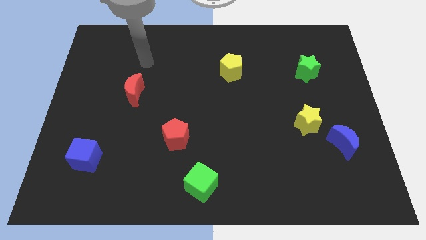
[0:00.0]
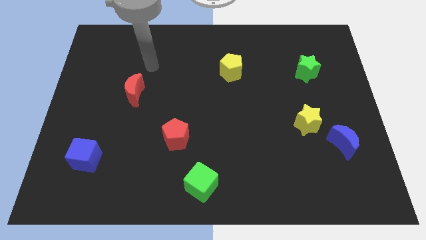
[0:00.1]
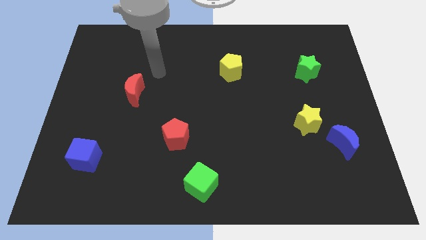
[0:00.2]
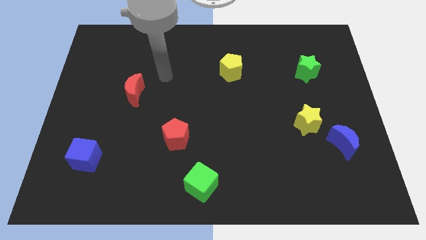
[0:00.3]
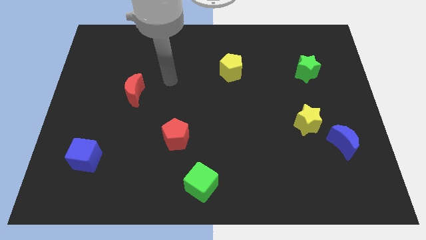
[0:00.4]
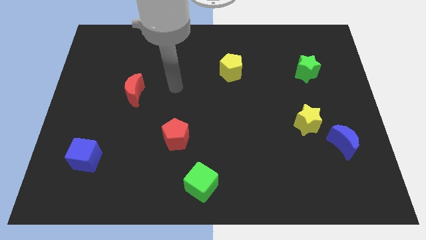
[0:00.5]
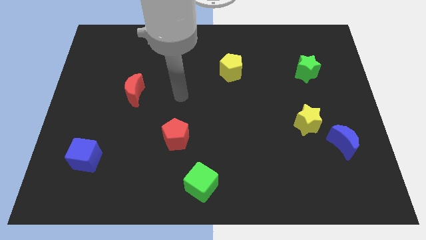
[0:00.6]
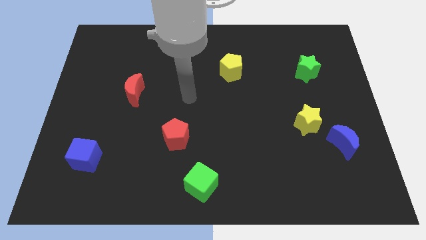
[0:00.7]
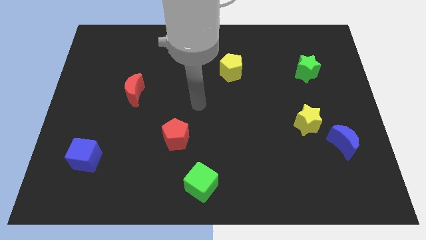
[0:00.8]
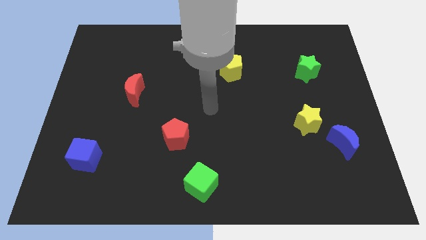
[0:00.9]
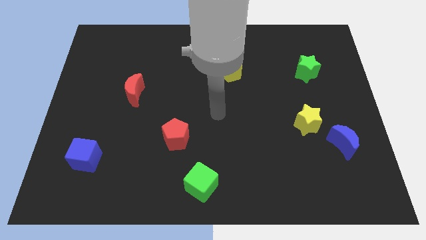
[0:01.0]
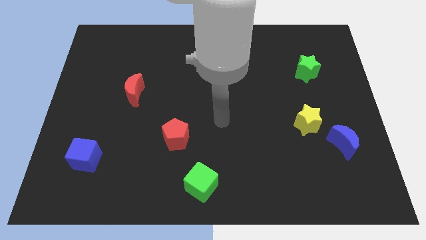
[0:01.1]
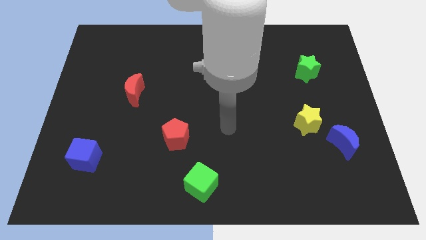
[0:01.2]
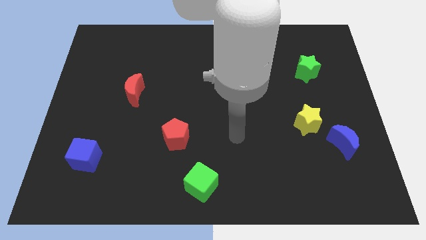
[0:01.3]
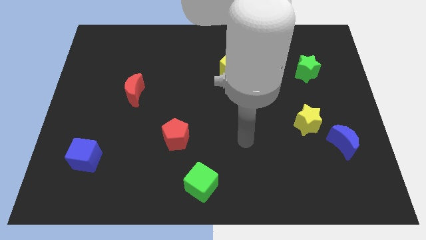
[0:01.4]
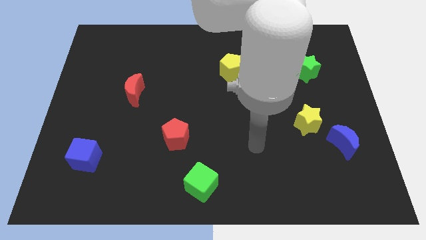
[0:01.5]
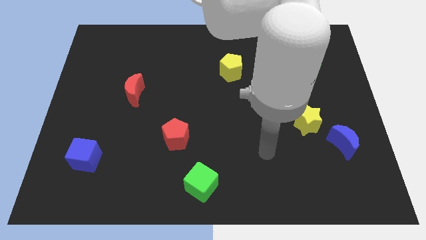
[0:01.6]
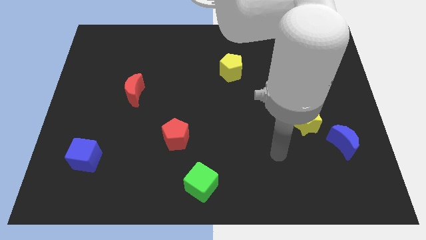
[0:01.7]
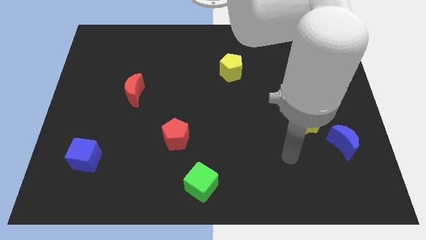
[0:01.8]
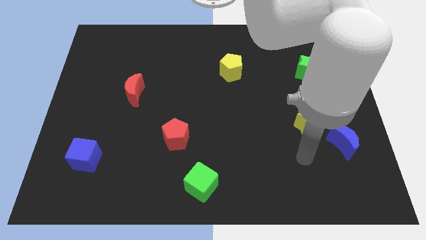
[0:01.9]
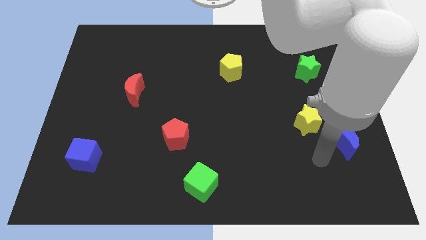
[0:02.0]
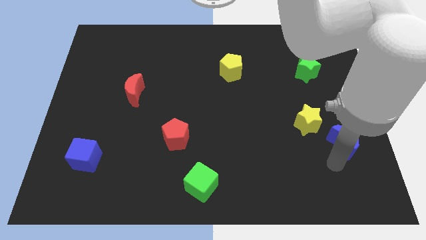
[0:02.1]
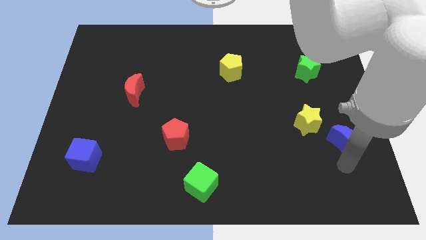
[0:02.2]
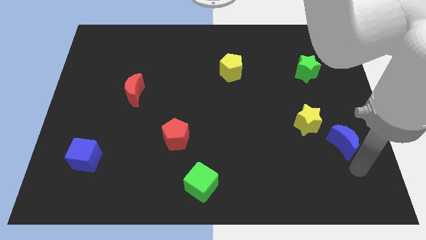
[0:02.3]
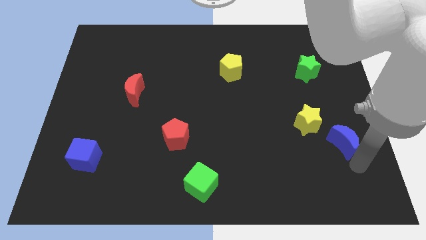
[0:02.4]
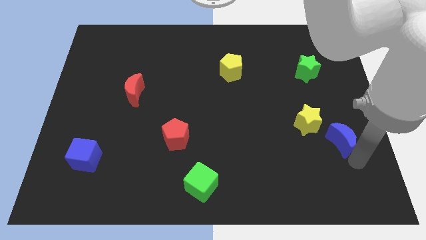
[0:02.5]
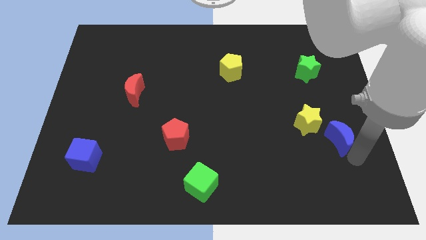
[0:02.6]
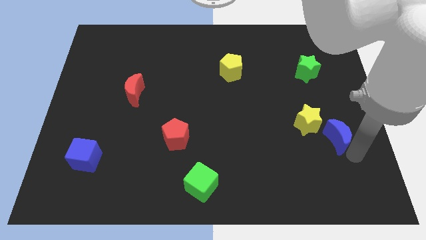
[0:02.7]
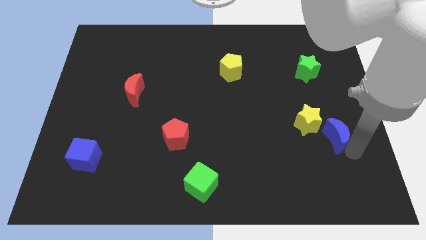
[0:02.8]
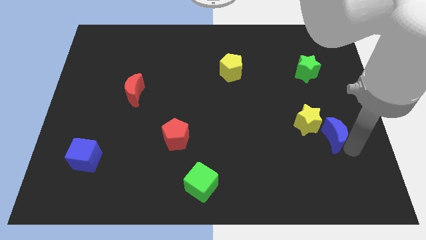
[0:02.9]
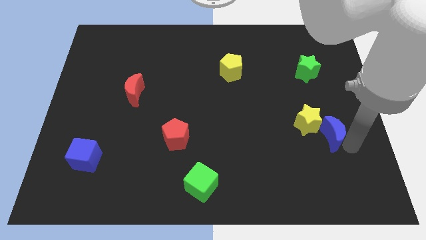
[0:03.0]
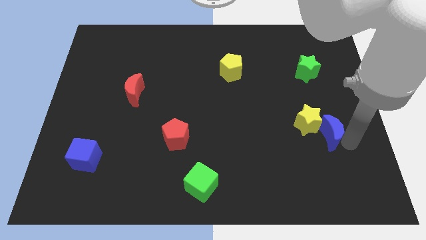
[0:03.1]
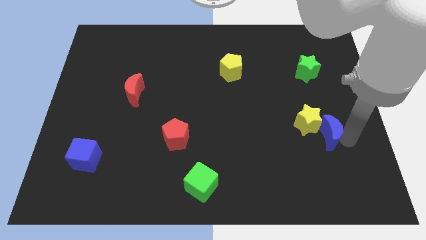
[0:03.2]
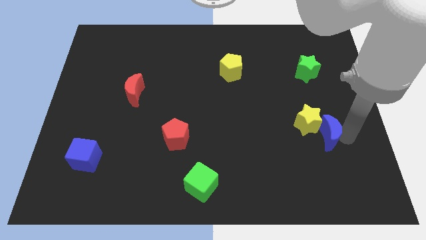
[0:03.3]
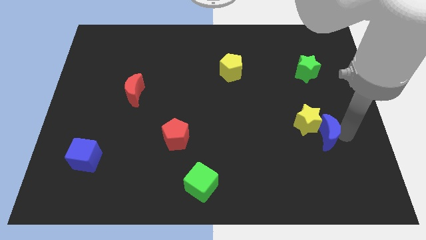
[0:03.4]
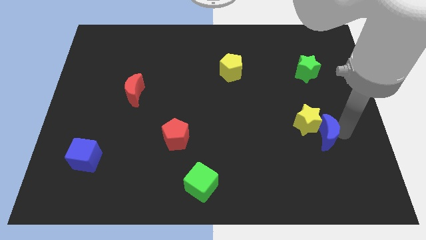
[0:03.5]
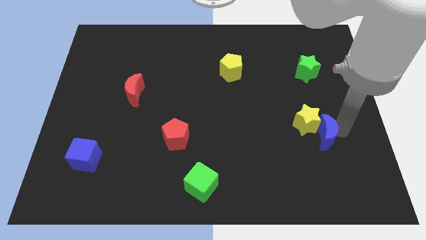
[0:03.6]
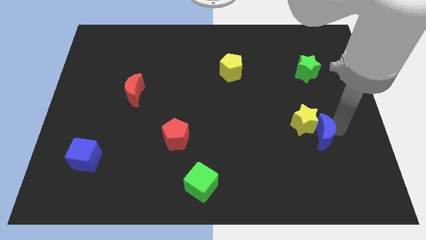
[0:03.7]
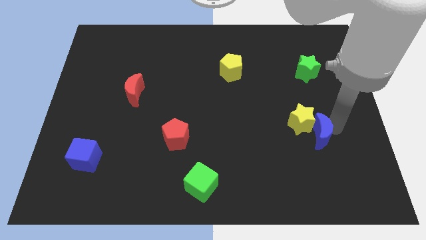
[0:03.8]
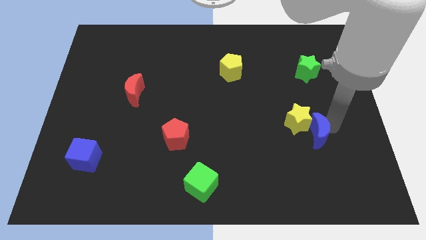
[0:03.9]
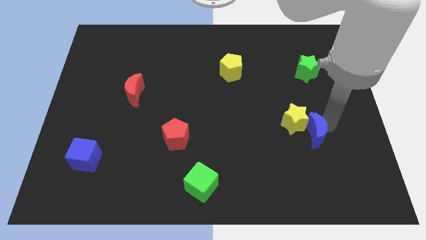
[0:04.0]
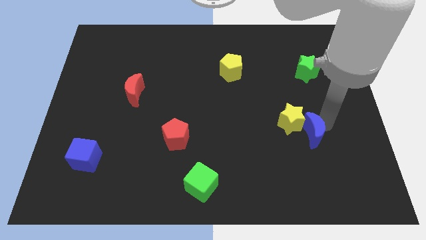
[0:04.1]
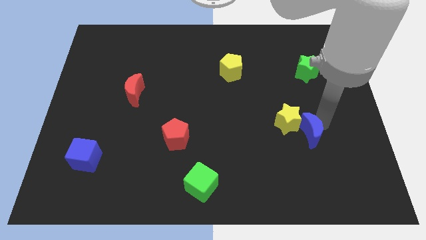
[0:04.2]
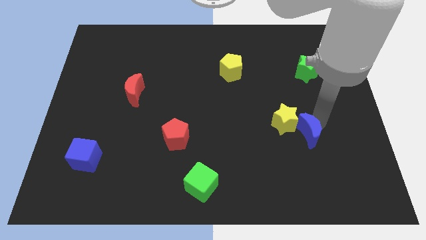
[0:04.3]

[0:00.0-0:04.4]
move the blue moon upwards and left diagonally a little

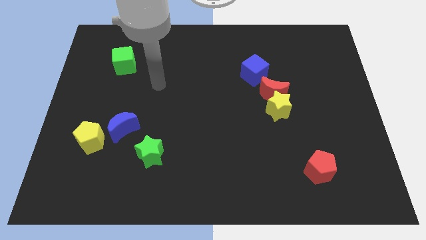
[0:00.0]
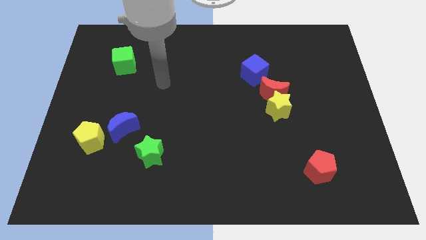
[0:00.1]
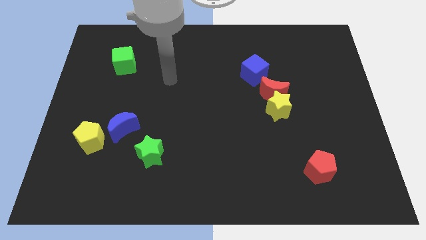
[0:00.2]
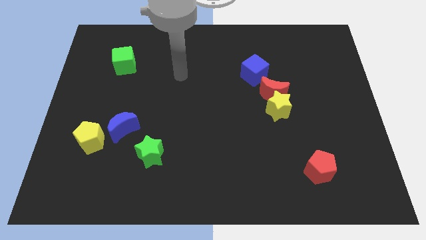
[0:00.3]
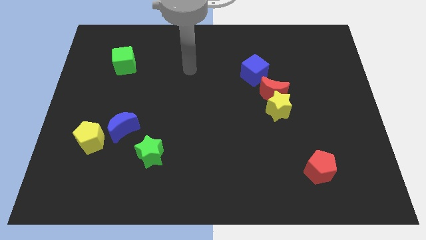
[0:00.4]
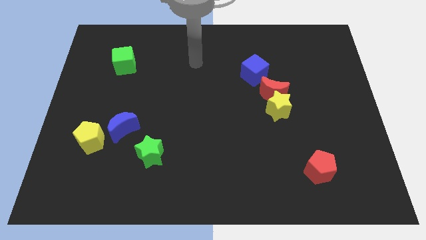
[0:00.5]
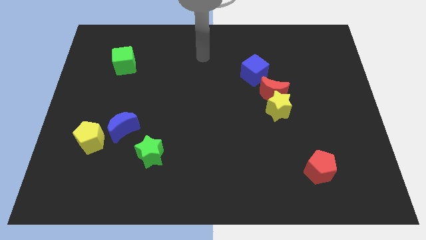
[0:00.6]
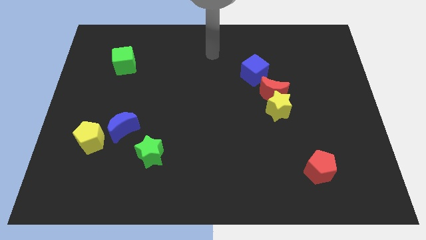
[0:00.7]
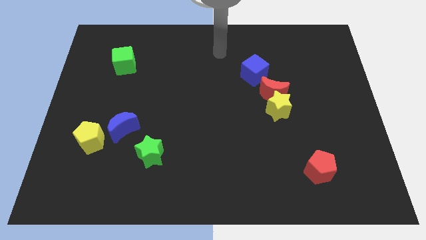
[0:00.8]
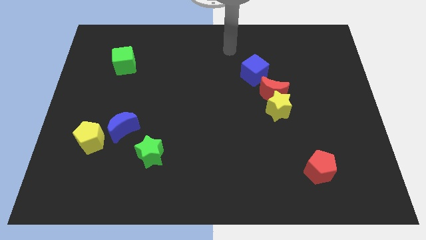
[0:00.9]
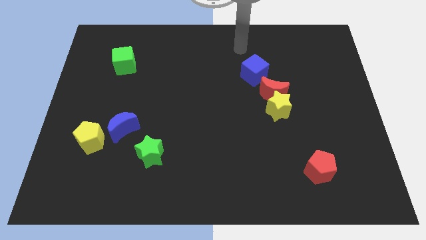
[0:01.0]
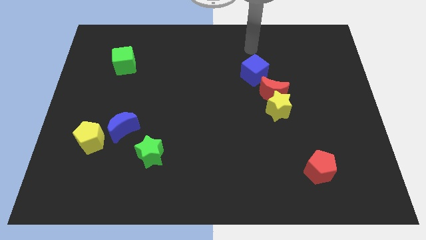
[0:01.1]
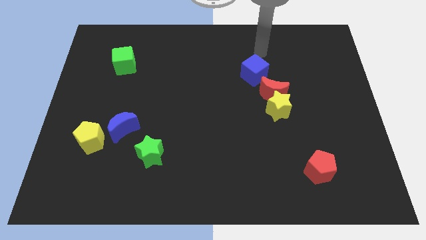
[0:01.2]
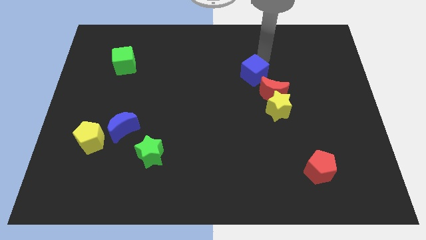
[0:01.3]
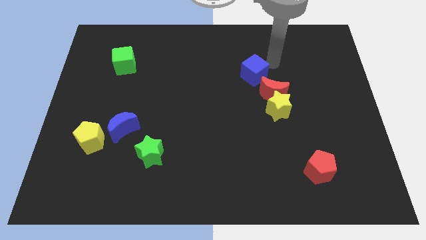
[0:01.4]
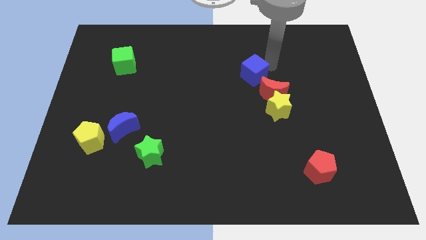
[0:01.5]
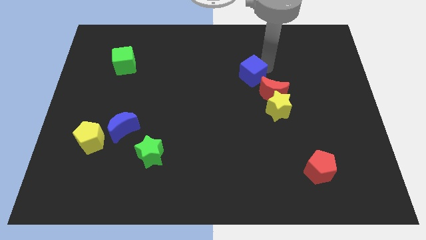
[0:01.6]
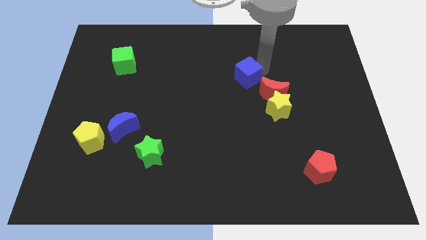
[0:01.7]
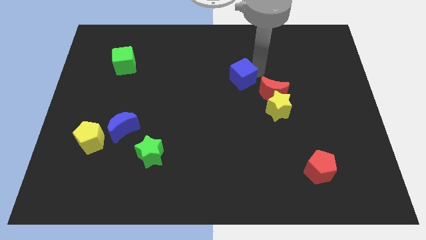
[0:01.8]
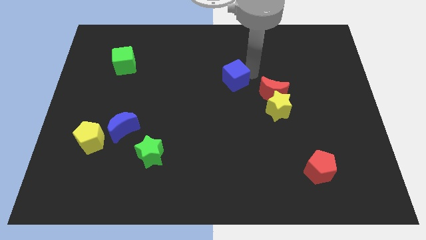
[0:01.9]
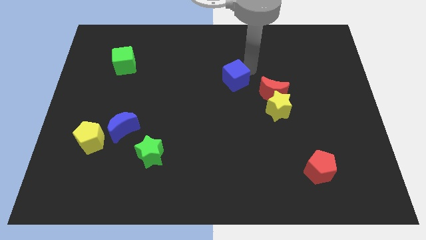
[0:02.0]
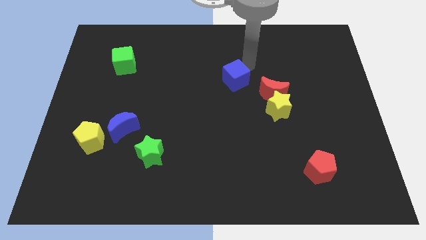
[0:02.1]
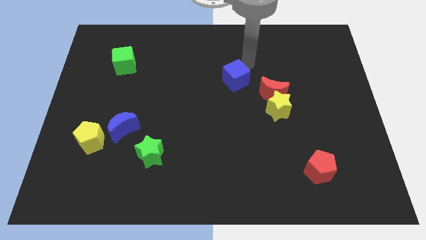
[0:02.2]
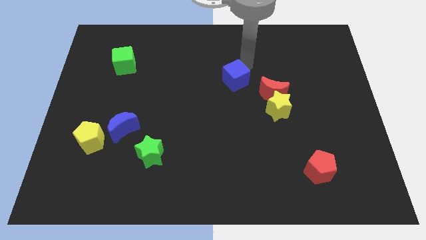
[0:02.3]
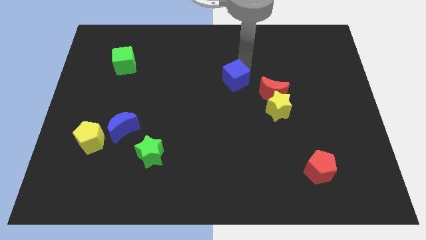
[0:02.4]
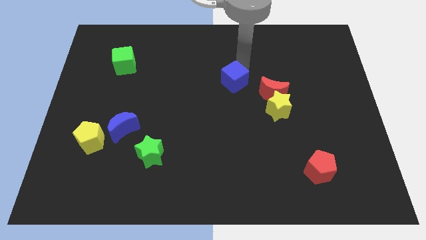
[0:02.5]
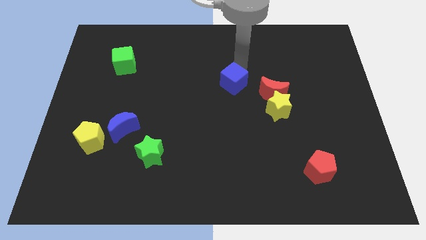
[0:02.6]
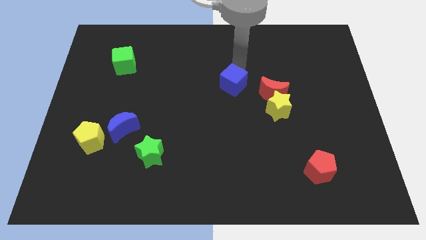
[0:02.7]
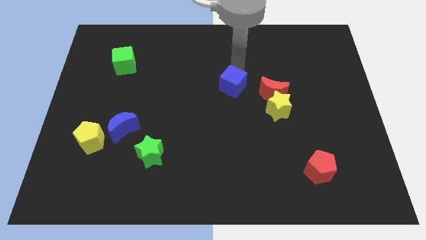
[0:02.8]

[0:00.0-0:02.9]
move the blue cube downwards and to the left a little bit

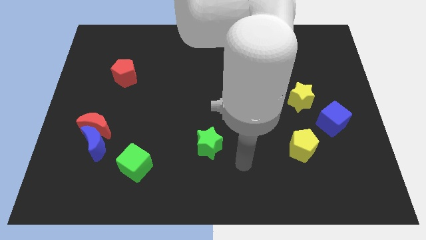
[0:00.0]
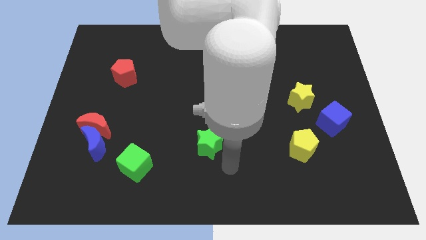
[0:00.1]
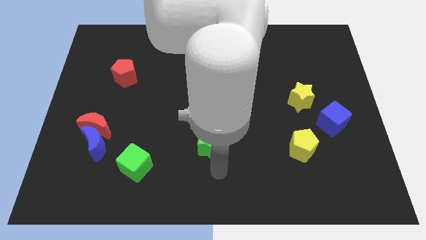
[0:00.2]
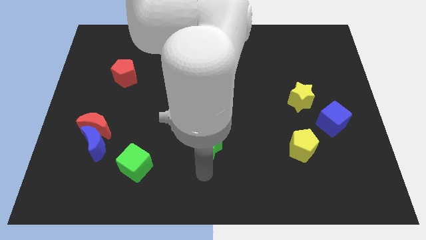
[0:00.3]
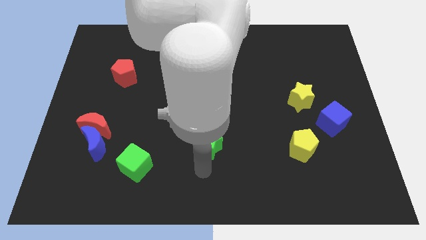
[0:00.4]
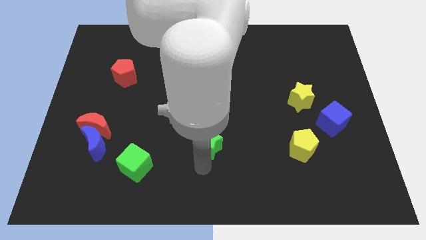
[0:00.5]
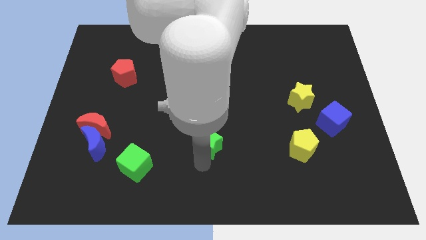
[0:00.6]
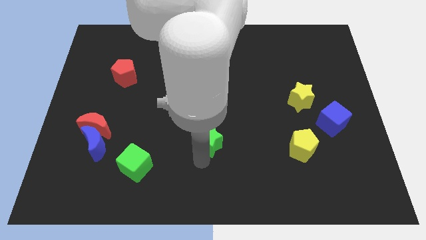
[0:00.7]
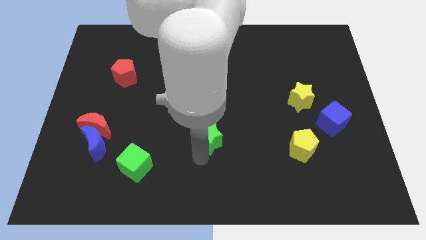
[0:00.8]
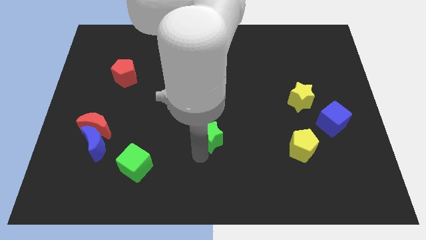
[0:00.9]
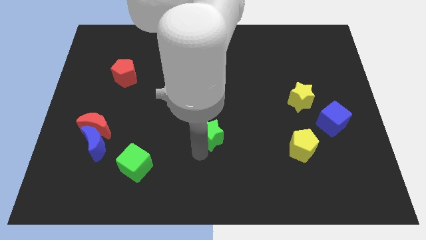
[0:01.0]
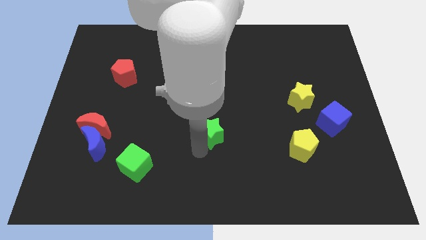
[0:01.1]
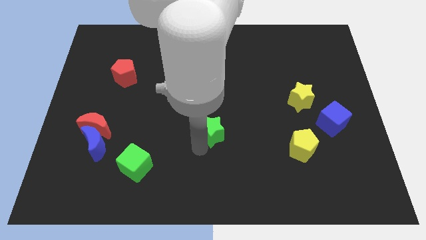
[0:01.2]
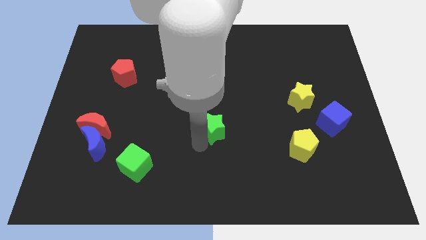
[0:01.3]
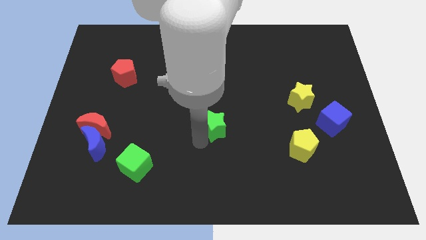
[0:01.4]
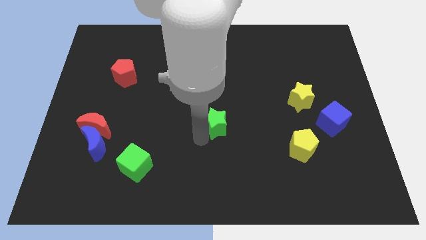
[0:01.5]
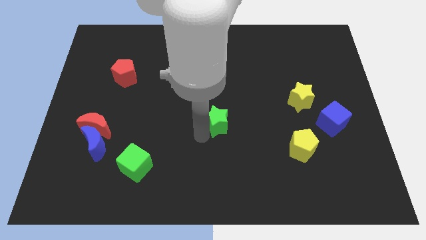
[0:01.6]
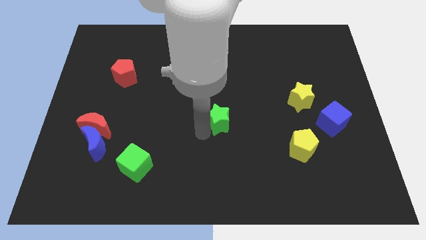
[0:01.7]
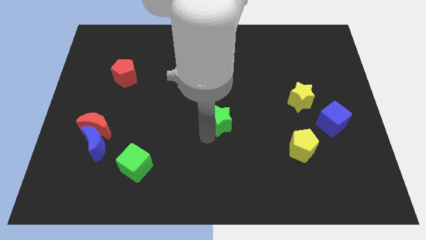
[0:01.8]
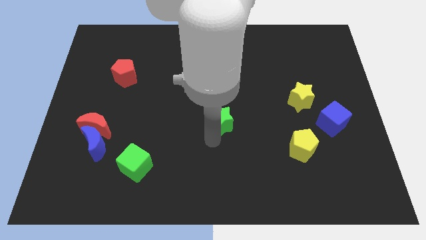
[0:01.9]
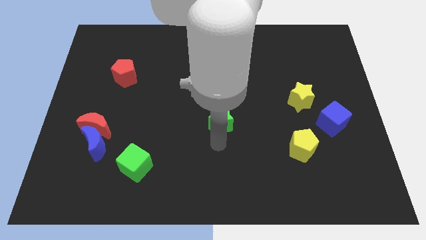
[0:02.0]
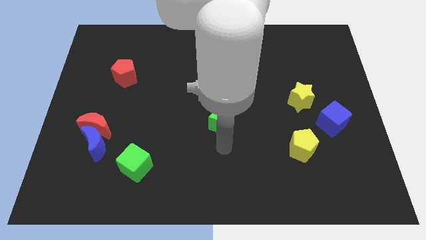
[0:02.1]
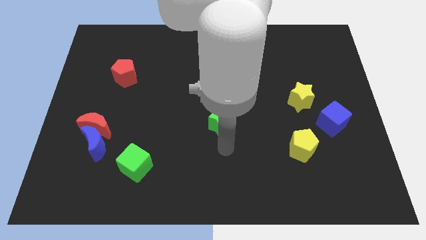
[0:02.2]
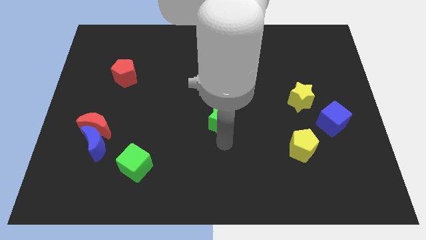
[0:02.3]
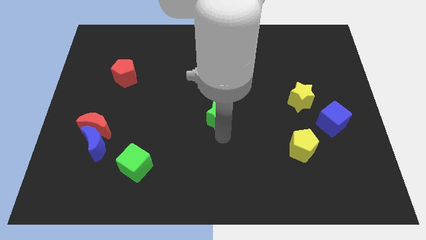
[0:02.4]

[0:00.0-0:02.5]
move the green star up a little
